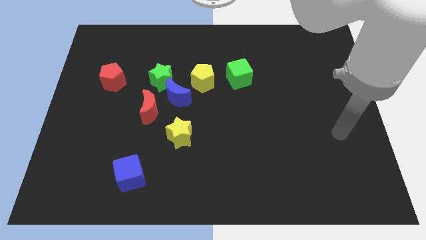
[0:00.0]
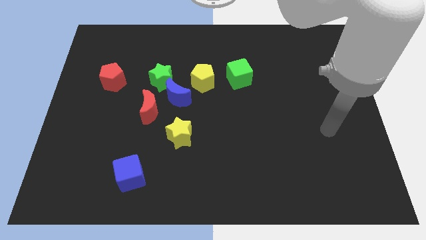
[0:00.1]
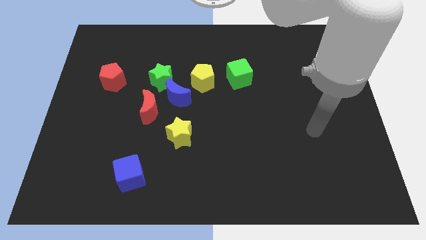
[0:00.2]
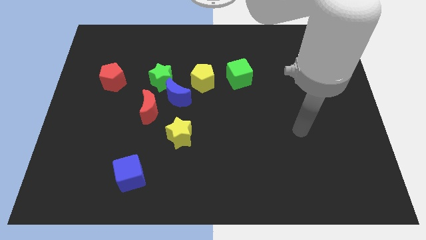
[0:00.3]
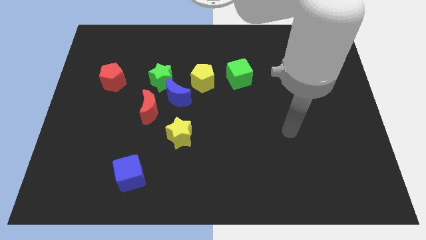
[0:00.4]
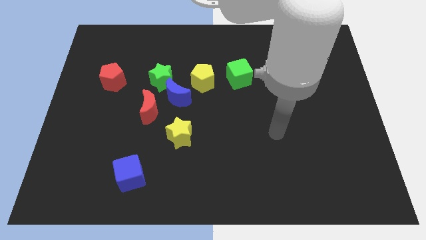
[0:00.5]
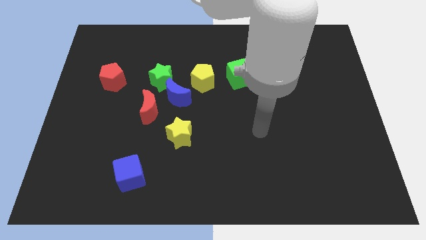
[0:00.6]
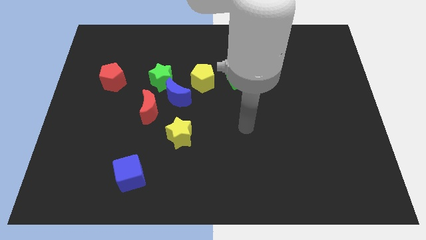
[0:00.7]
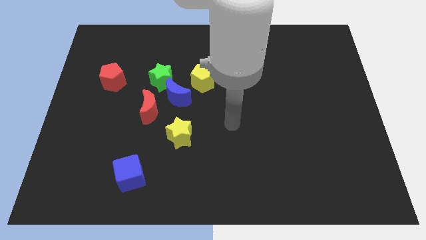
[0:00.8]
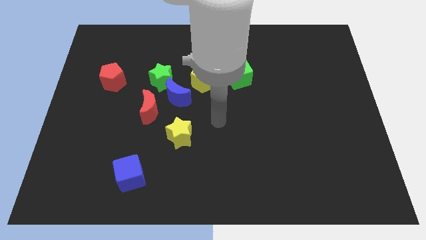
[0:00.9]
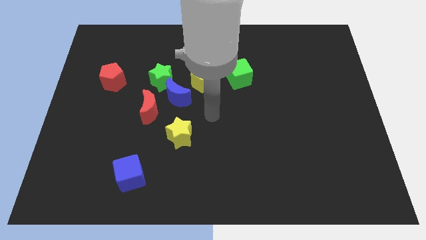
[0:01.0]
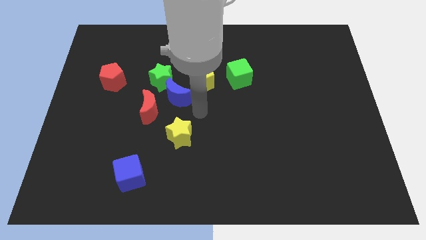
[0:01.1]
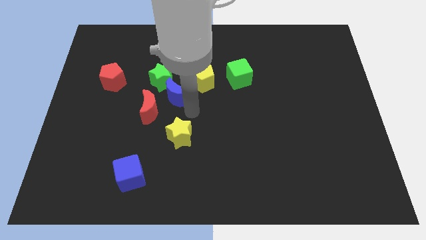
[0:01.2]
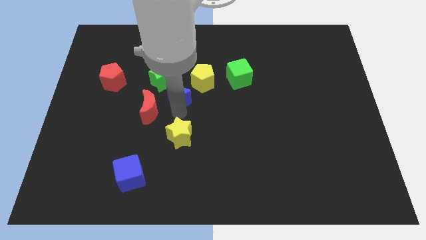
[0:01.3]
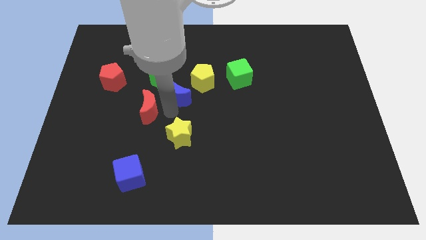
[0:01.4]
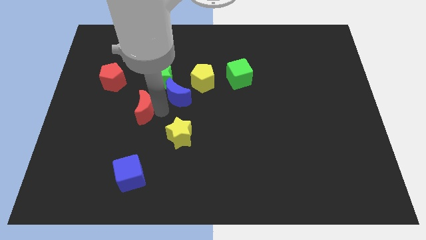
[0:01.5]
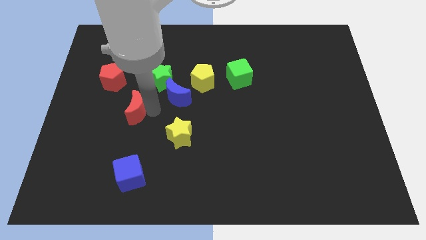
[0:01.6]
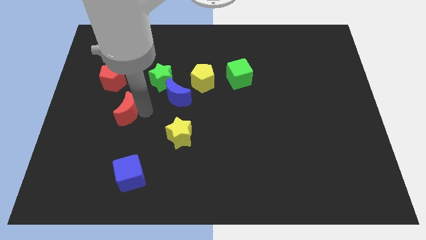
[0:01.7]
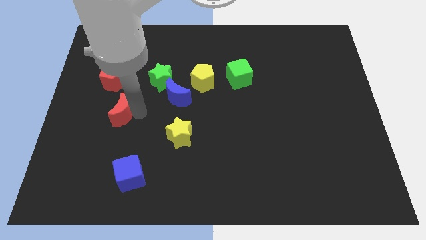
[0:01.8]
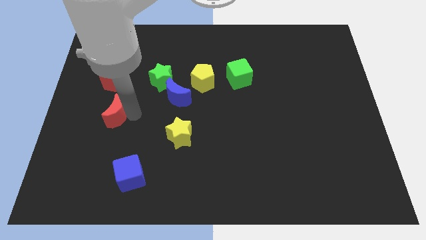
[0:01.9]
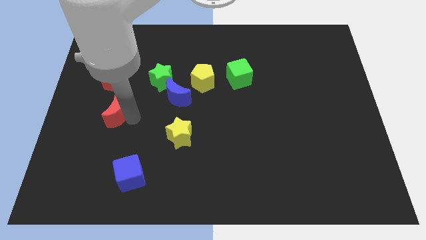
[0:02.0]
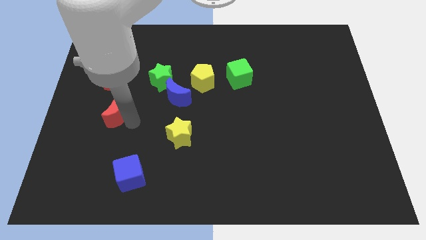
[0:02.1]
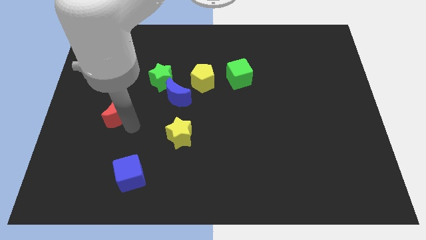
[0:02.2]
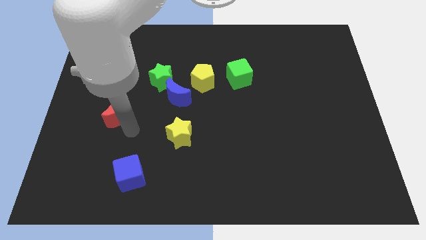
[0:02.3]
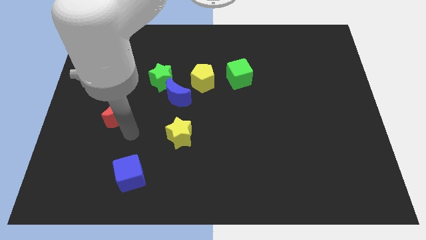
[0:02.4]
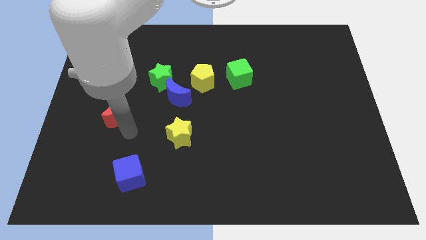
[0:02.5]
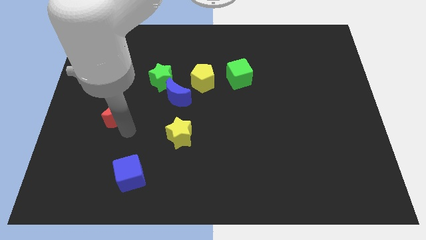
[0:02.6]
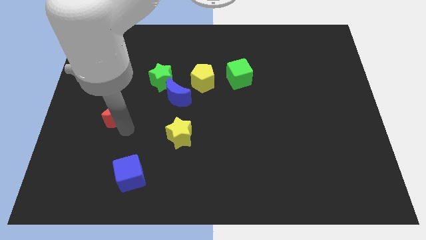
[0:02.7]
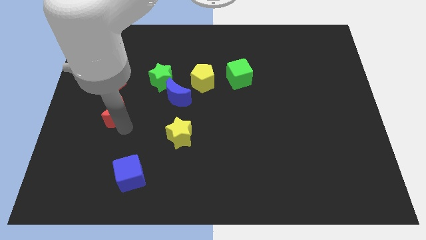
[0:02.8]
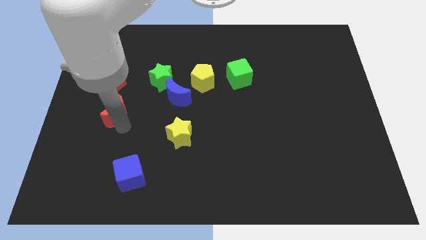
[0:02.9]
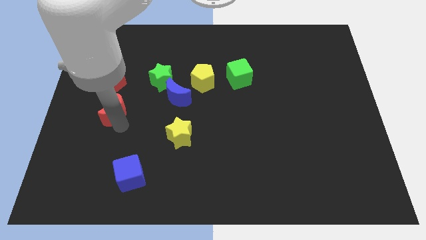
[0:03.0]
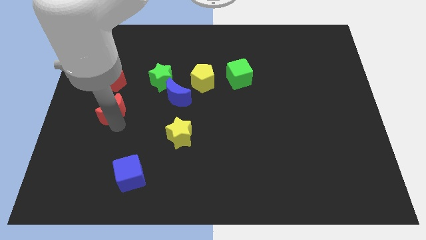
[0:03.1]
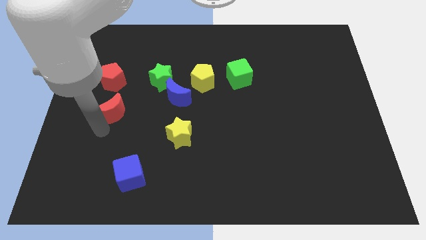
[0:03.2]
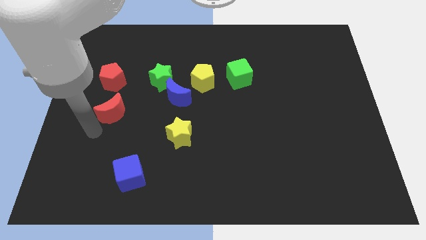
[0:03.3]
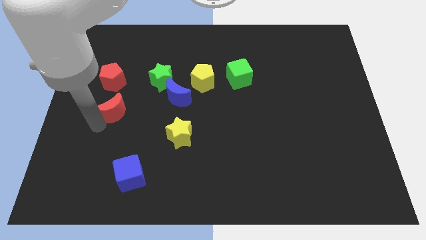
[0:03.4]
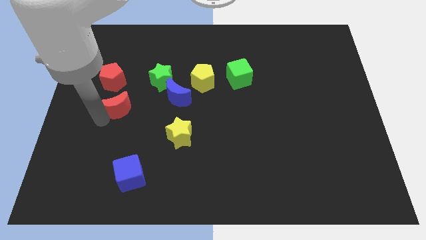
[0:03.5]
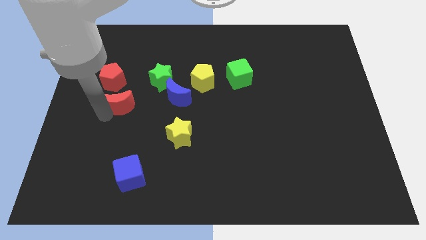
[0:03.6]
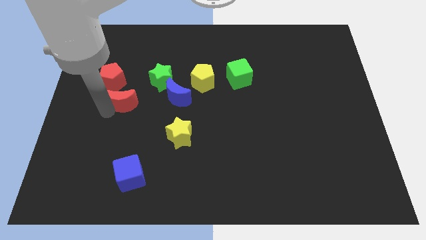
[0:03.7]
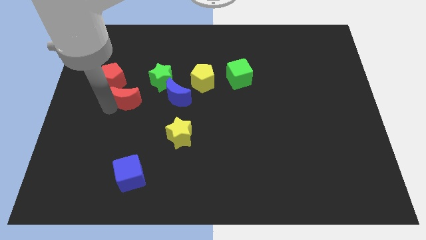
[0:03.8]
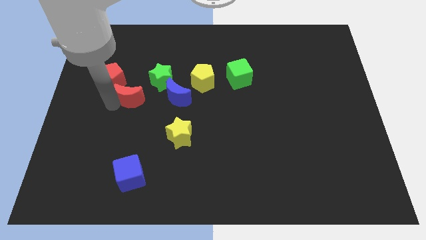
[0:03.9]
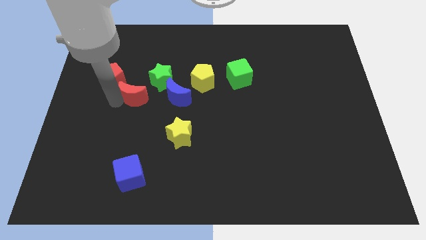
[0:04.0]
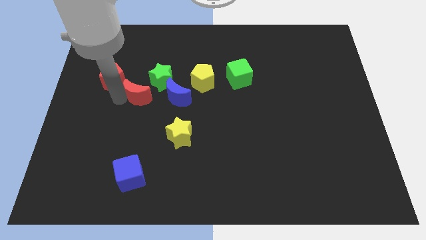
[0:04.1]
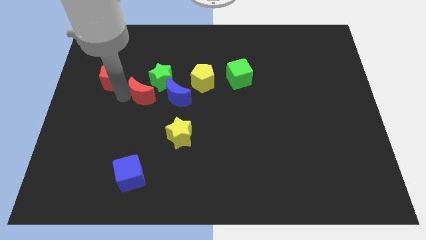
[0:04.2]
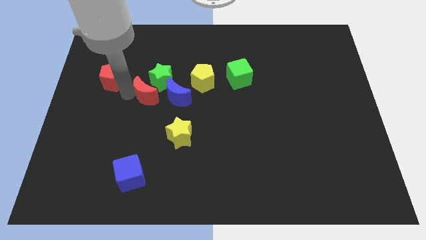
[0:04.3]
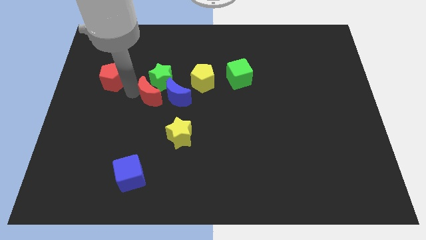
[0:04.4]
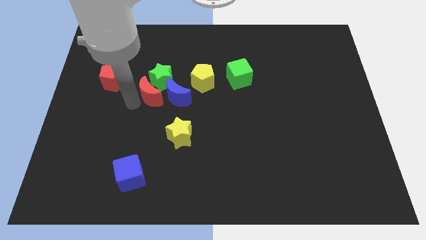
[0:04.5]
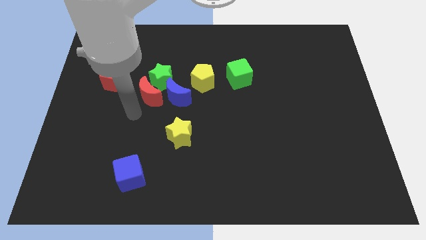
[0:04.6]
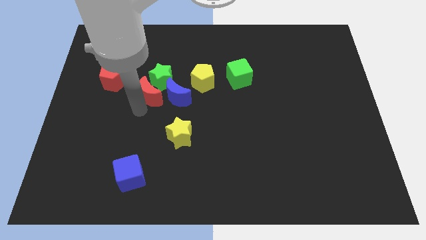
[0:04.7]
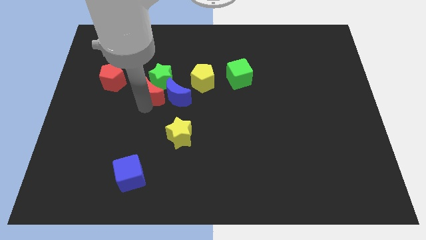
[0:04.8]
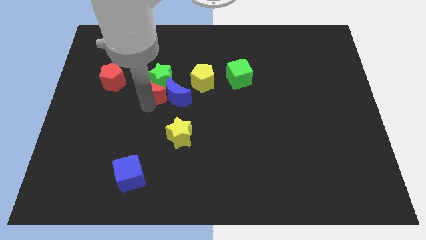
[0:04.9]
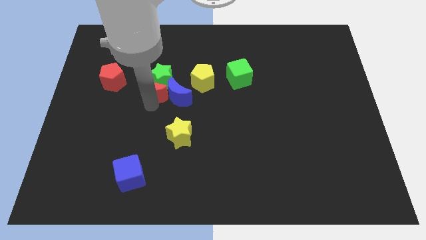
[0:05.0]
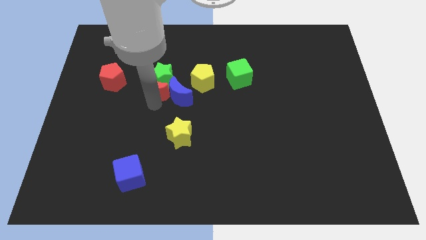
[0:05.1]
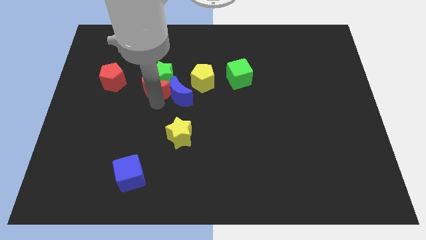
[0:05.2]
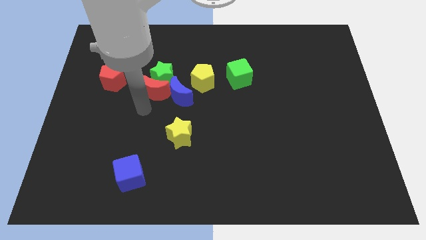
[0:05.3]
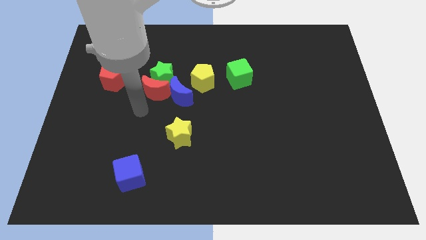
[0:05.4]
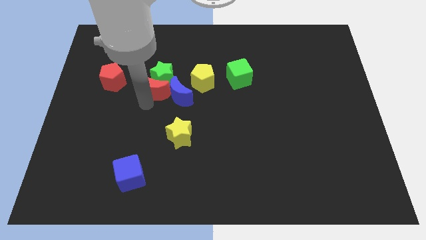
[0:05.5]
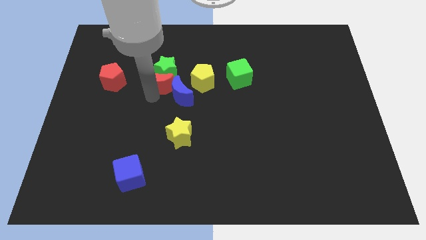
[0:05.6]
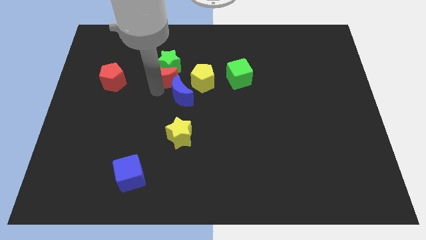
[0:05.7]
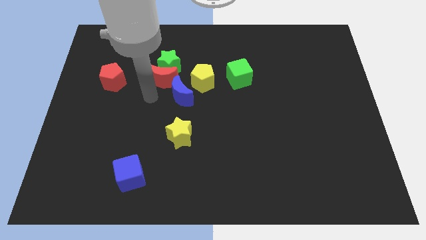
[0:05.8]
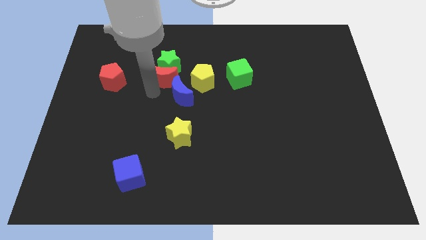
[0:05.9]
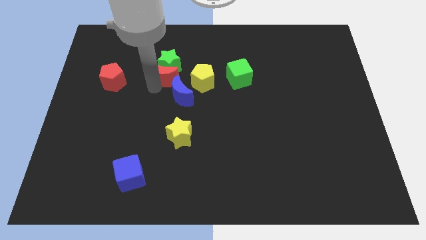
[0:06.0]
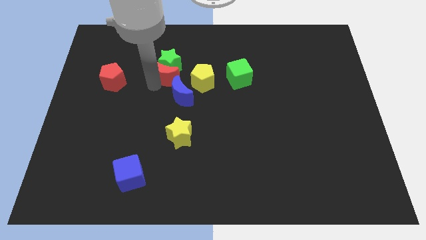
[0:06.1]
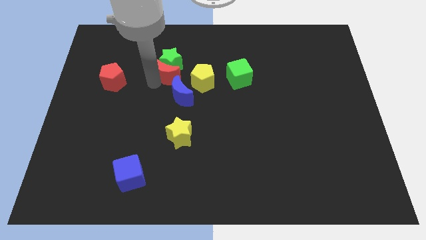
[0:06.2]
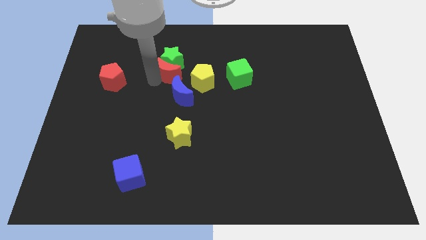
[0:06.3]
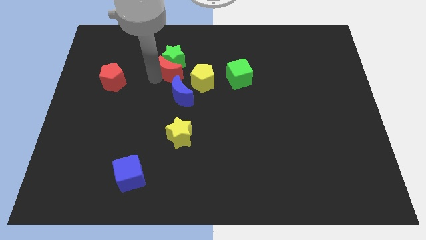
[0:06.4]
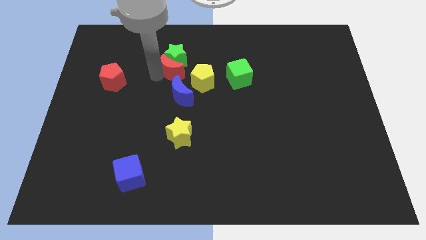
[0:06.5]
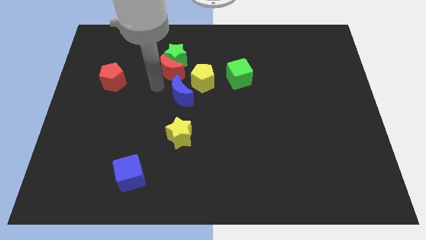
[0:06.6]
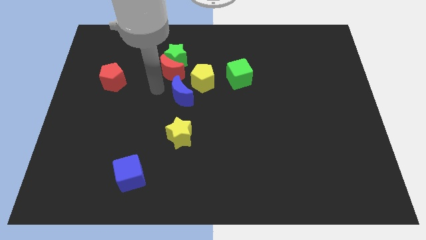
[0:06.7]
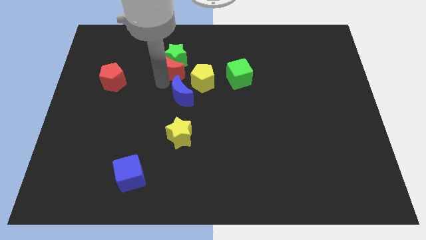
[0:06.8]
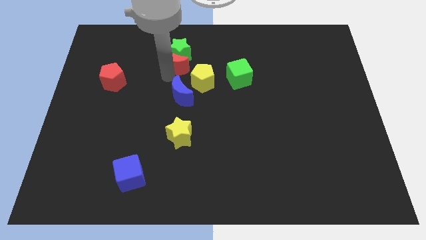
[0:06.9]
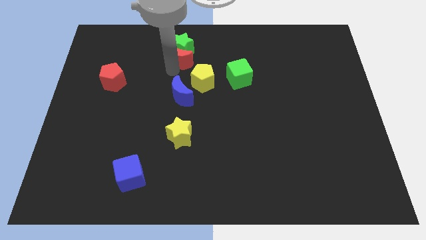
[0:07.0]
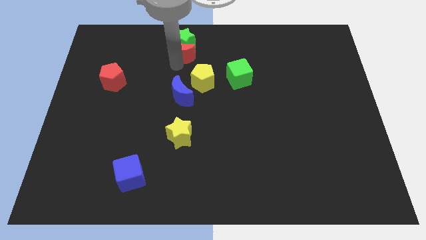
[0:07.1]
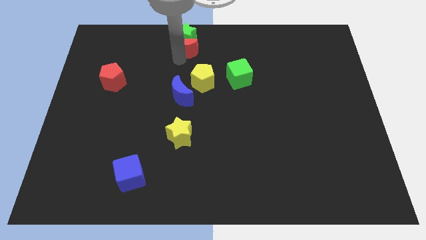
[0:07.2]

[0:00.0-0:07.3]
move the red moon to the top
